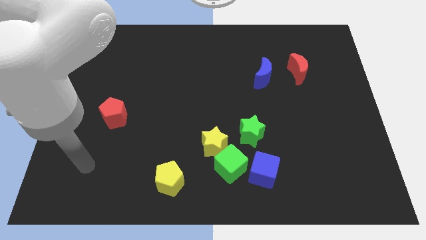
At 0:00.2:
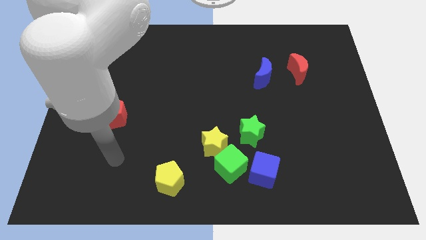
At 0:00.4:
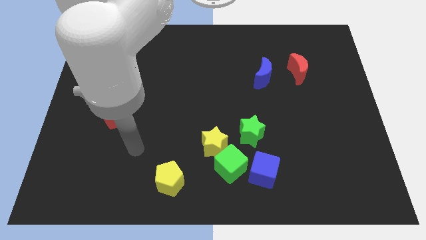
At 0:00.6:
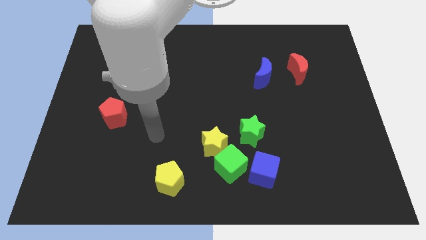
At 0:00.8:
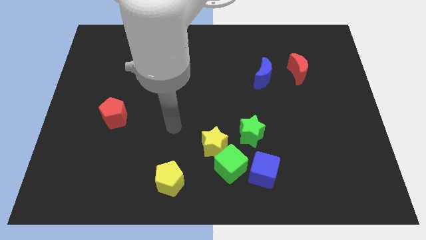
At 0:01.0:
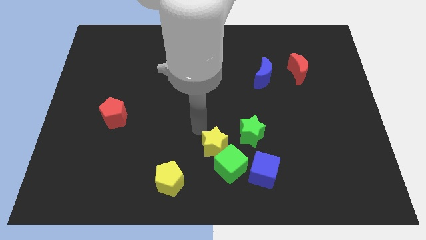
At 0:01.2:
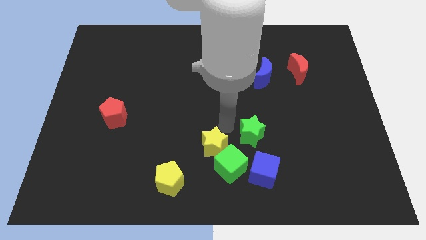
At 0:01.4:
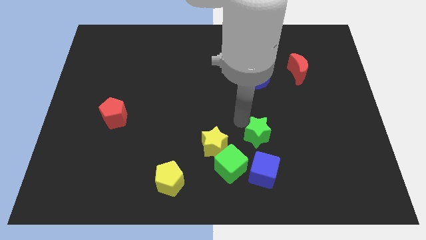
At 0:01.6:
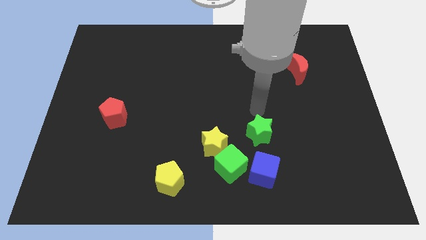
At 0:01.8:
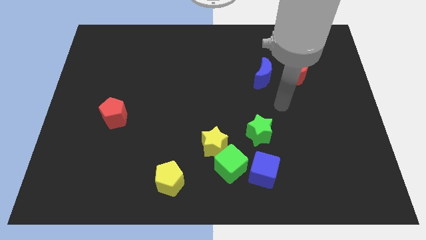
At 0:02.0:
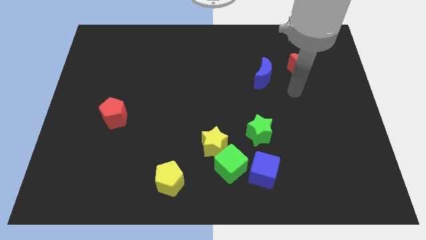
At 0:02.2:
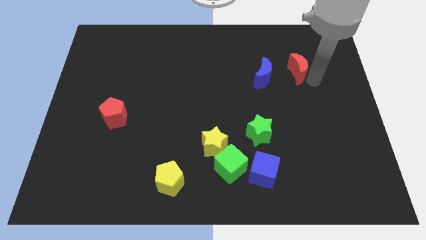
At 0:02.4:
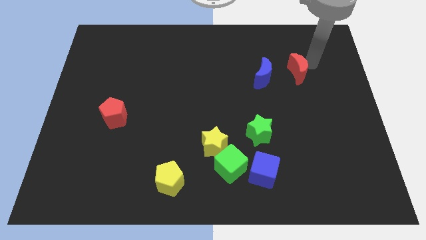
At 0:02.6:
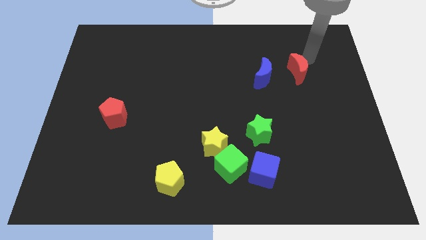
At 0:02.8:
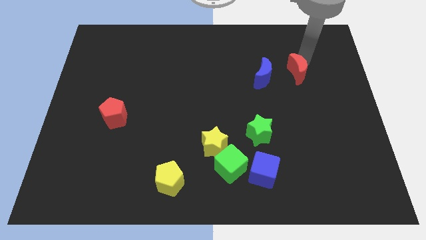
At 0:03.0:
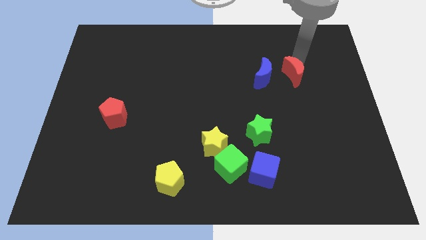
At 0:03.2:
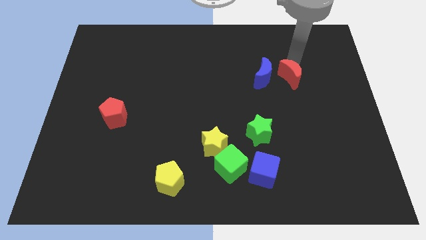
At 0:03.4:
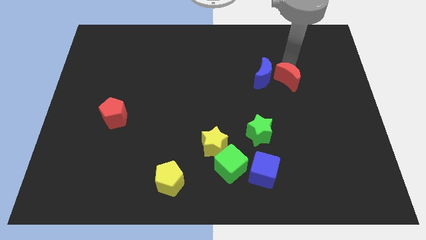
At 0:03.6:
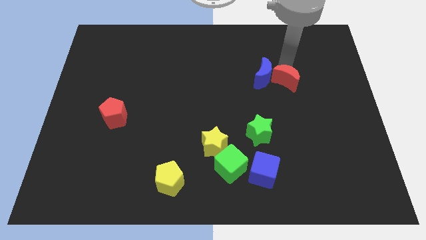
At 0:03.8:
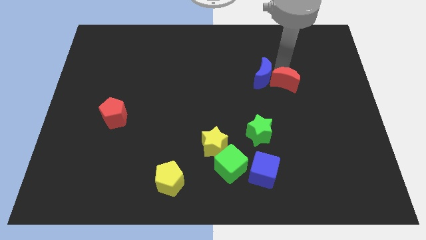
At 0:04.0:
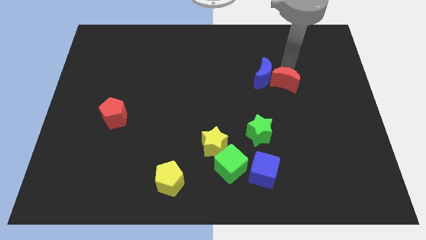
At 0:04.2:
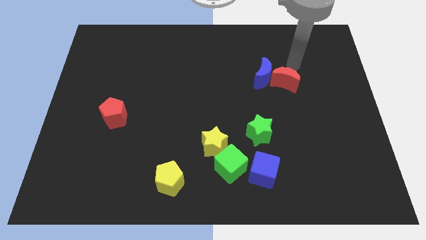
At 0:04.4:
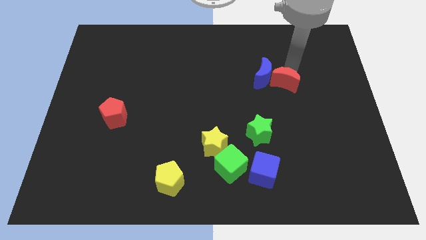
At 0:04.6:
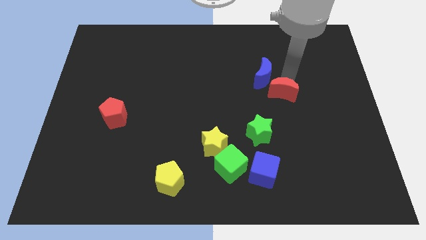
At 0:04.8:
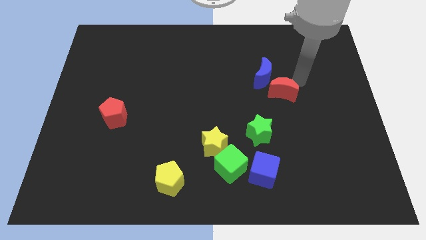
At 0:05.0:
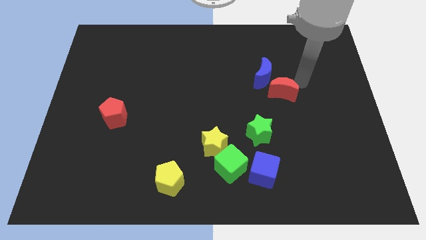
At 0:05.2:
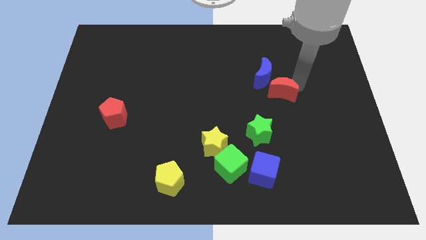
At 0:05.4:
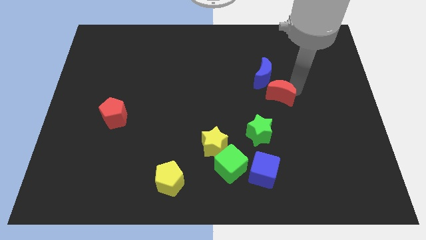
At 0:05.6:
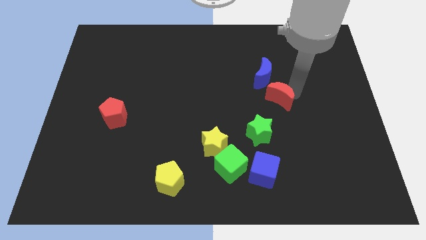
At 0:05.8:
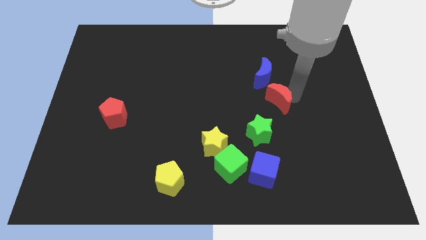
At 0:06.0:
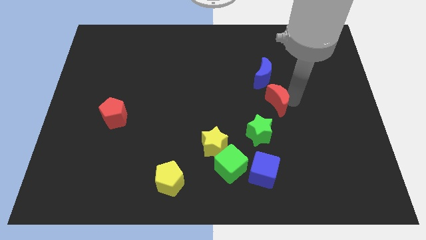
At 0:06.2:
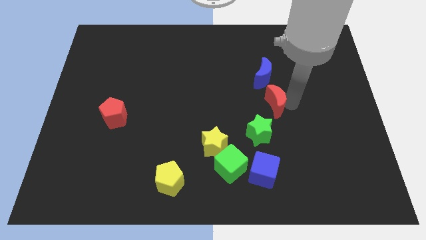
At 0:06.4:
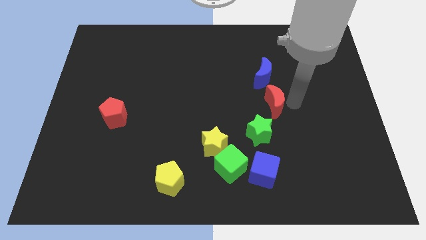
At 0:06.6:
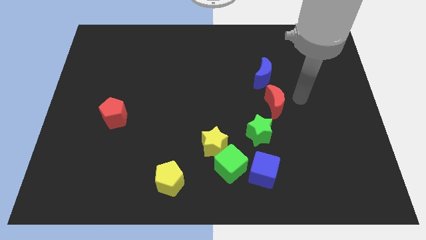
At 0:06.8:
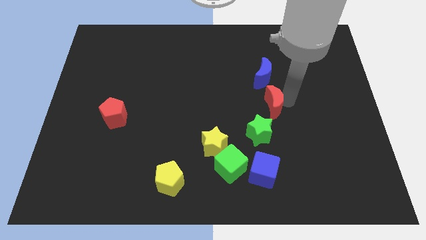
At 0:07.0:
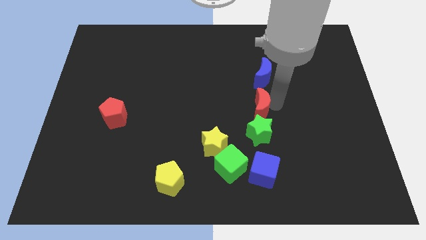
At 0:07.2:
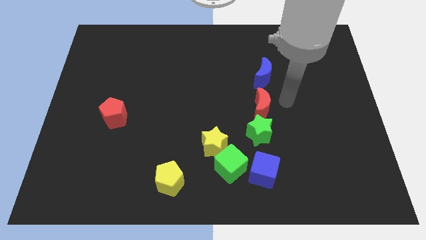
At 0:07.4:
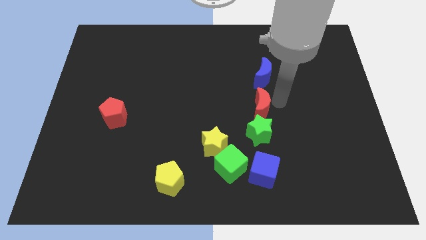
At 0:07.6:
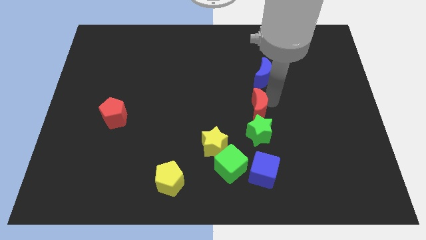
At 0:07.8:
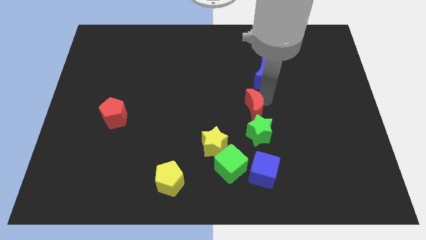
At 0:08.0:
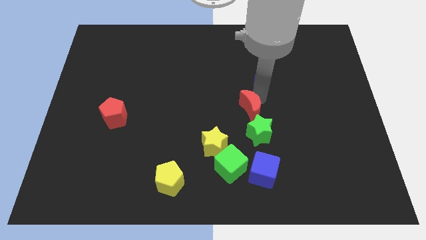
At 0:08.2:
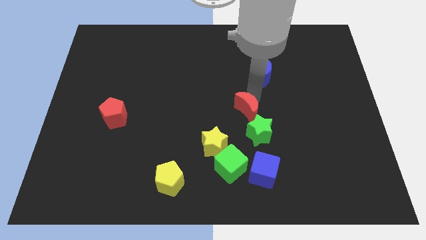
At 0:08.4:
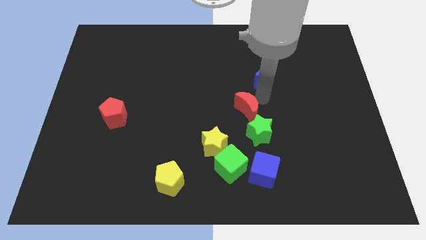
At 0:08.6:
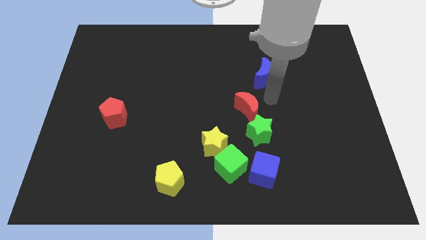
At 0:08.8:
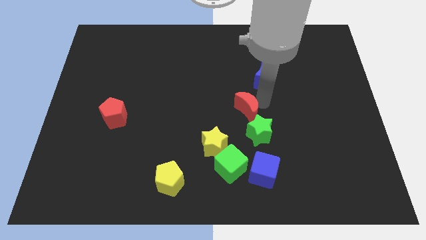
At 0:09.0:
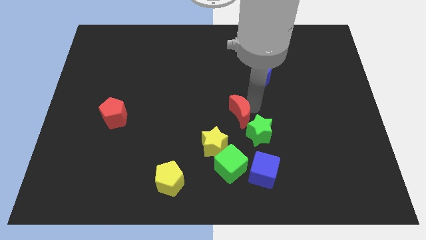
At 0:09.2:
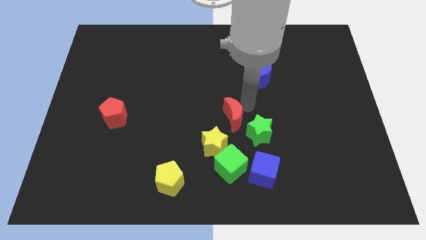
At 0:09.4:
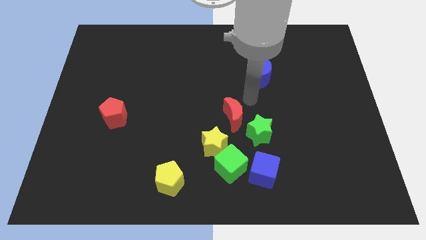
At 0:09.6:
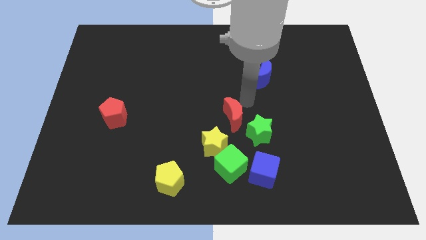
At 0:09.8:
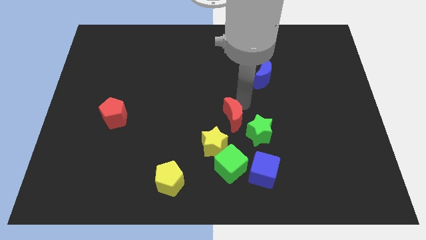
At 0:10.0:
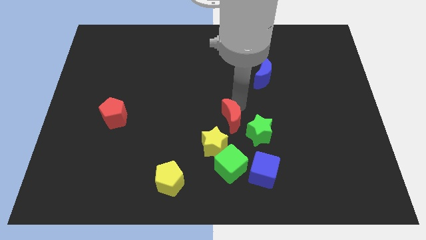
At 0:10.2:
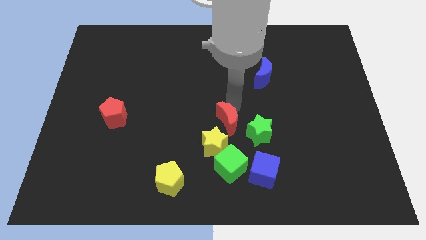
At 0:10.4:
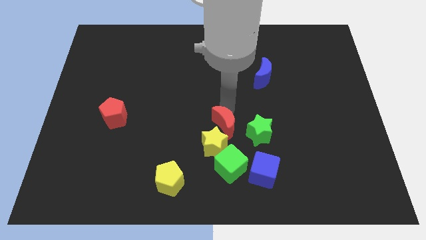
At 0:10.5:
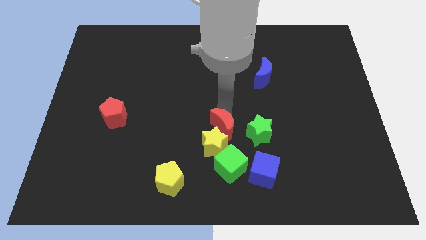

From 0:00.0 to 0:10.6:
move the red moon close to the yellow star

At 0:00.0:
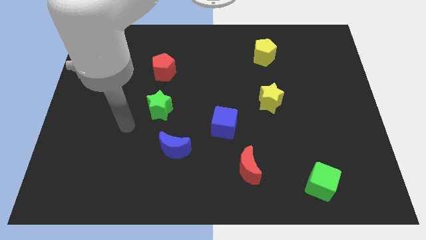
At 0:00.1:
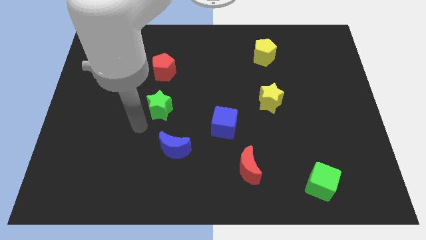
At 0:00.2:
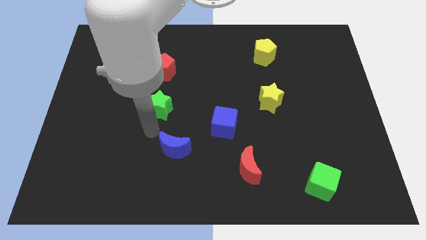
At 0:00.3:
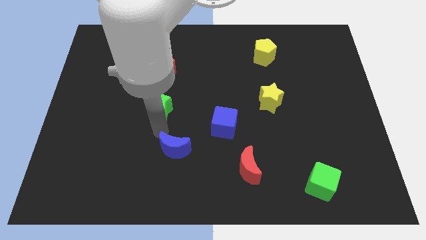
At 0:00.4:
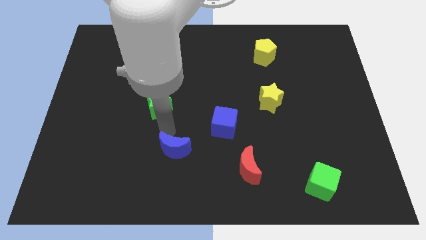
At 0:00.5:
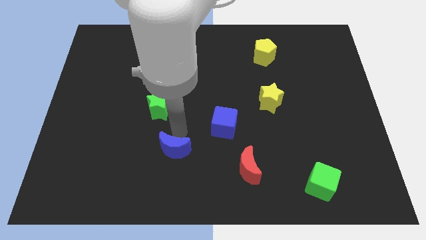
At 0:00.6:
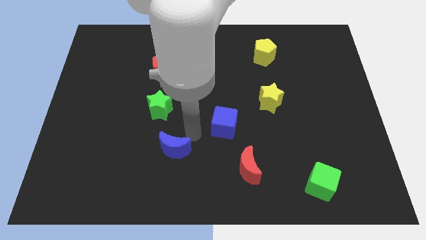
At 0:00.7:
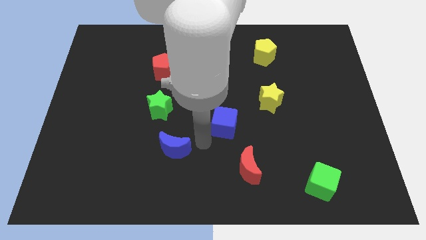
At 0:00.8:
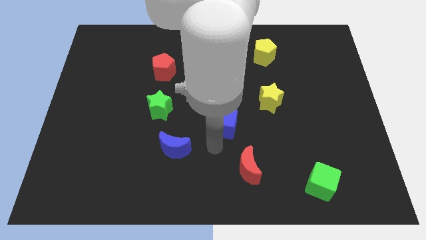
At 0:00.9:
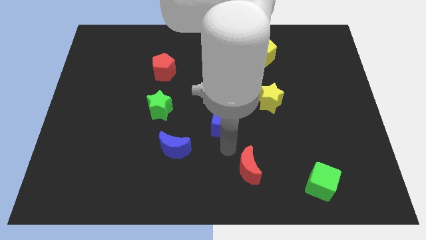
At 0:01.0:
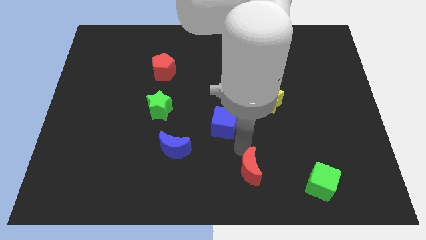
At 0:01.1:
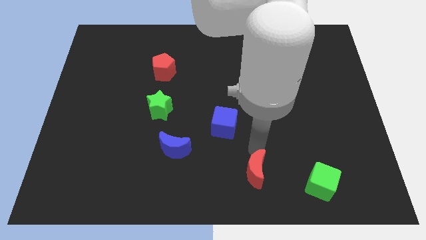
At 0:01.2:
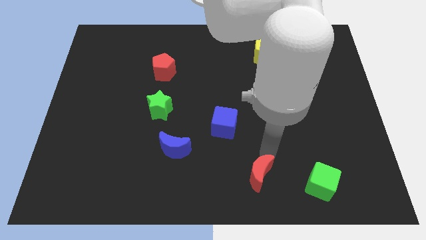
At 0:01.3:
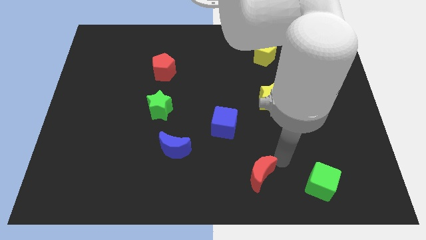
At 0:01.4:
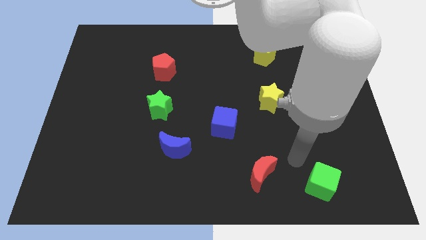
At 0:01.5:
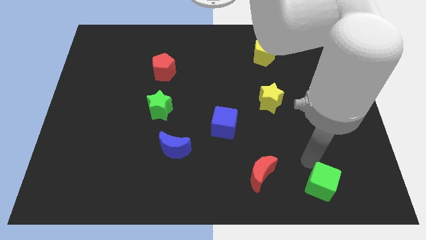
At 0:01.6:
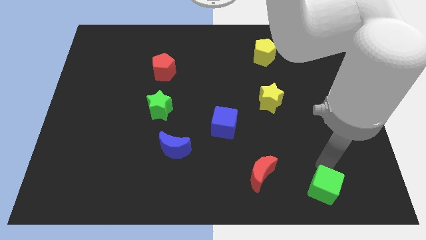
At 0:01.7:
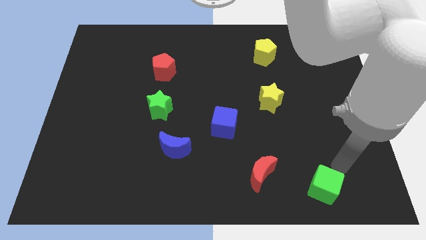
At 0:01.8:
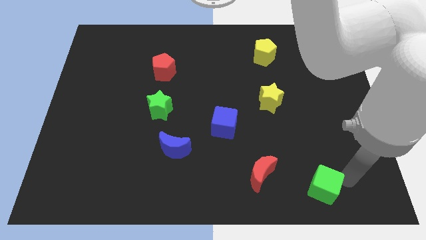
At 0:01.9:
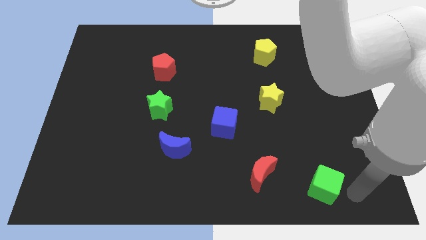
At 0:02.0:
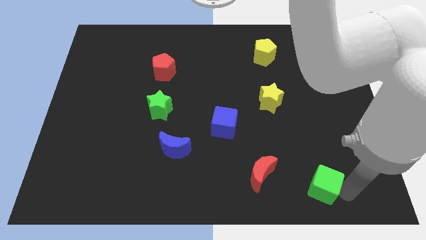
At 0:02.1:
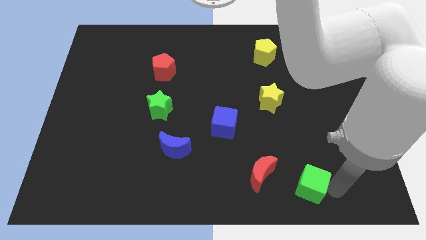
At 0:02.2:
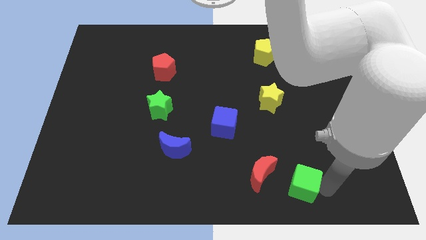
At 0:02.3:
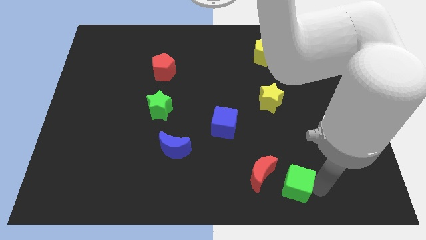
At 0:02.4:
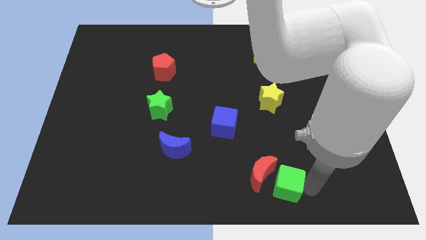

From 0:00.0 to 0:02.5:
slide the green cube towards the red moon
